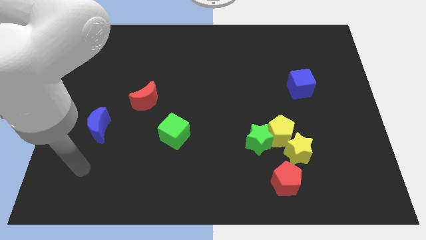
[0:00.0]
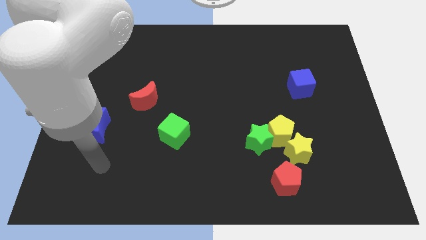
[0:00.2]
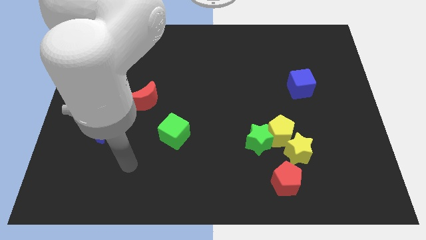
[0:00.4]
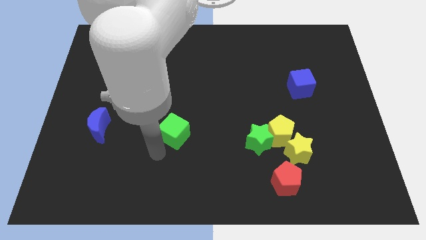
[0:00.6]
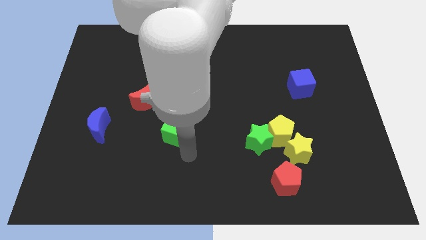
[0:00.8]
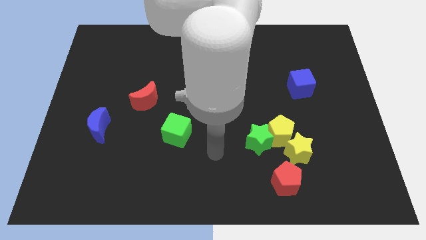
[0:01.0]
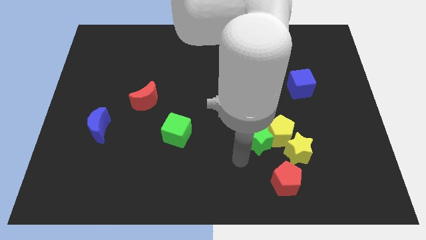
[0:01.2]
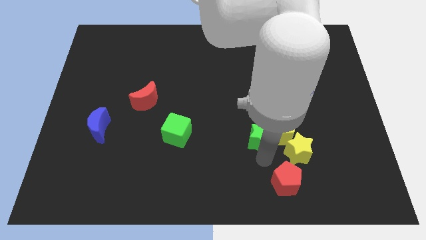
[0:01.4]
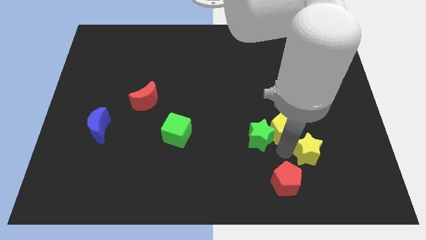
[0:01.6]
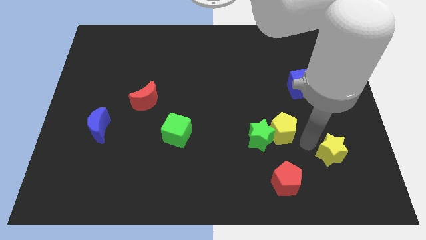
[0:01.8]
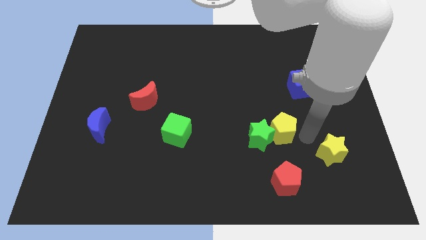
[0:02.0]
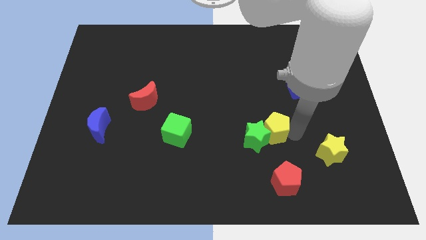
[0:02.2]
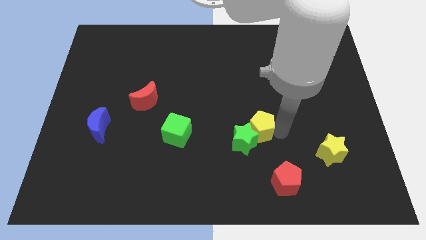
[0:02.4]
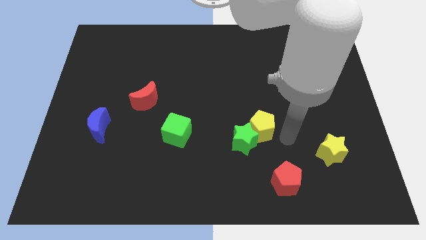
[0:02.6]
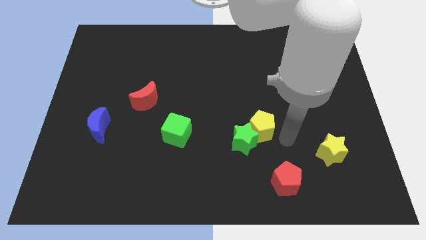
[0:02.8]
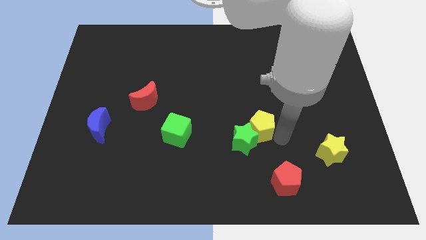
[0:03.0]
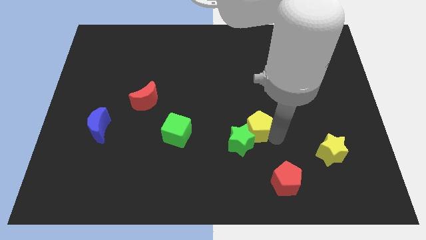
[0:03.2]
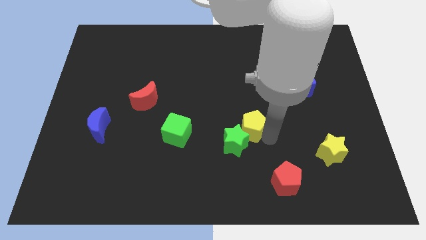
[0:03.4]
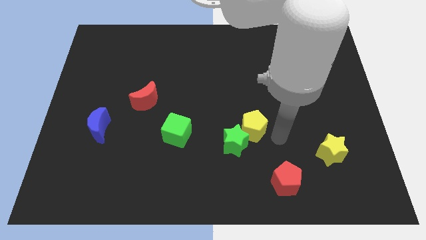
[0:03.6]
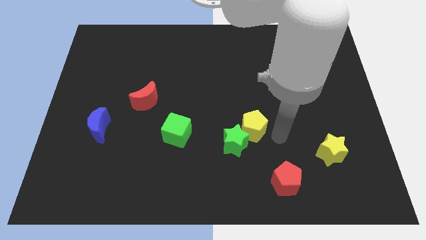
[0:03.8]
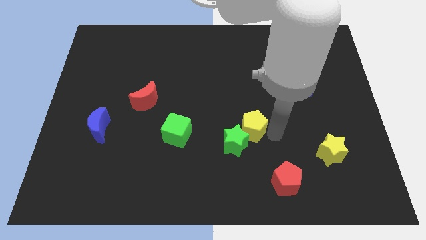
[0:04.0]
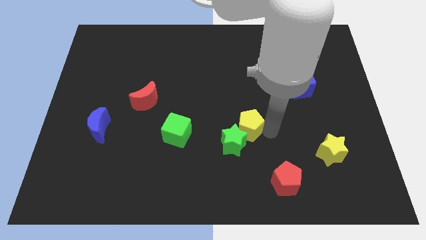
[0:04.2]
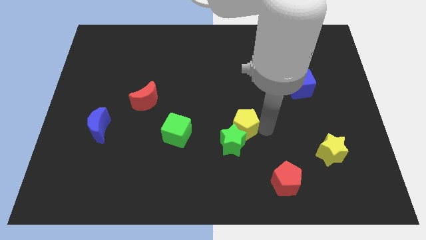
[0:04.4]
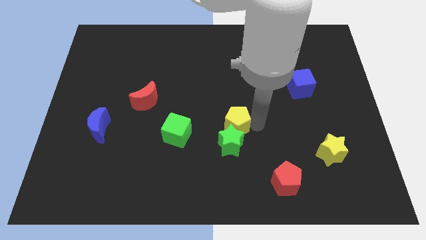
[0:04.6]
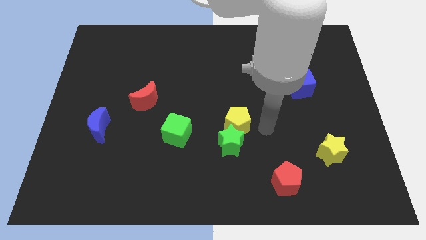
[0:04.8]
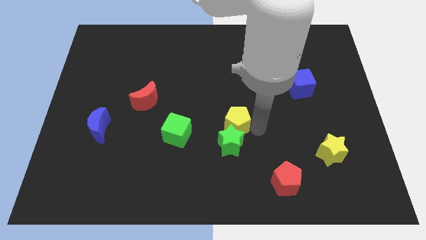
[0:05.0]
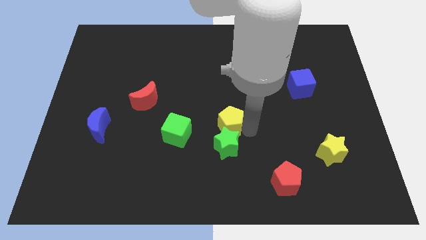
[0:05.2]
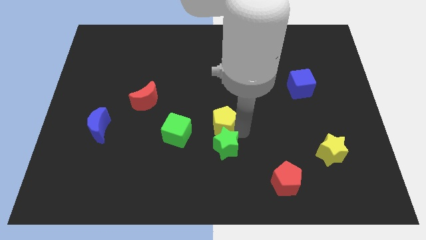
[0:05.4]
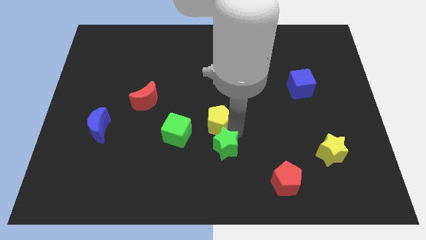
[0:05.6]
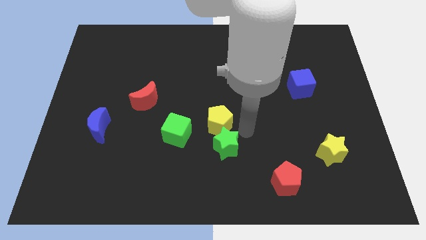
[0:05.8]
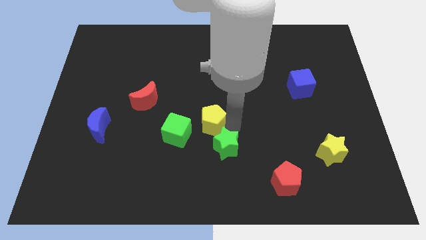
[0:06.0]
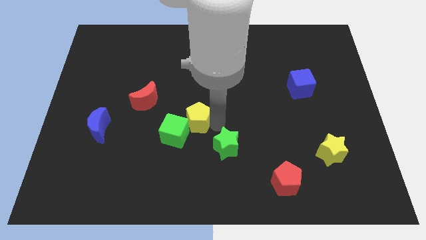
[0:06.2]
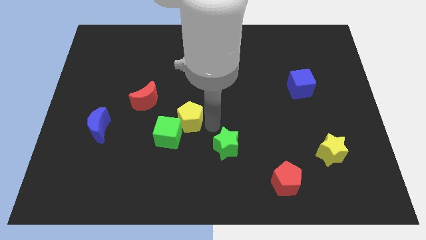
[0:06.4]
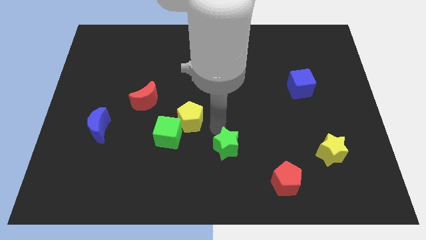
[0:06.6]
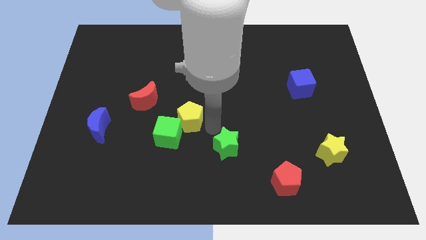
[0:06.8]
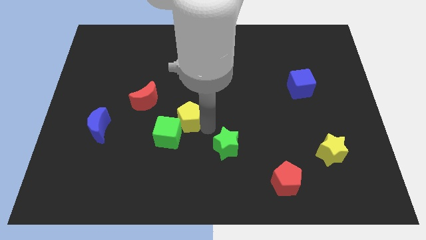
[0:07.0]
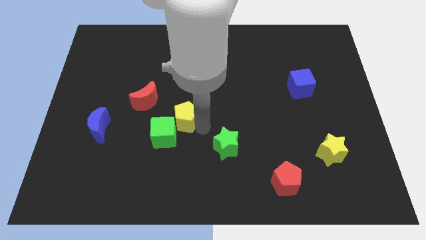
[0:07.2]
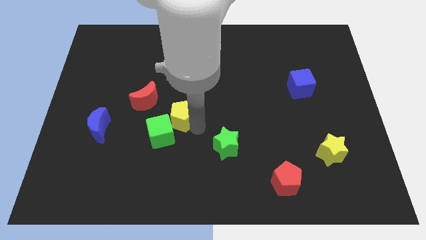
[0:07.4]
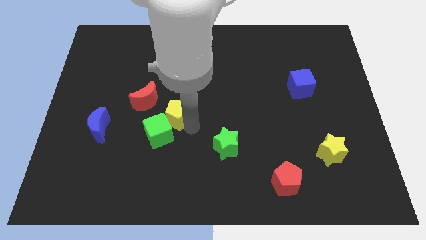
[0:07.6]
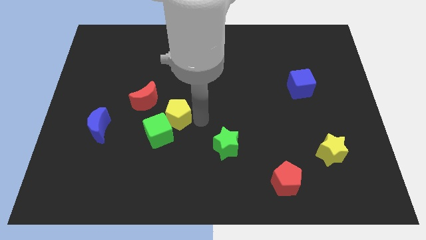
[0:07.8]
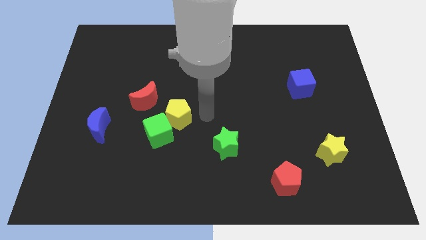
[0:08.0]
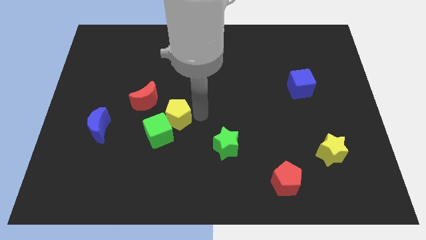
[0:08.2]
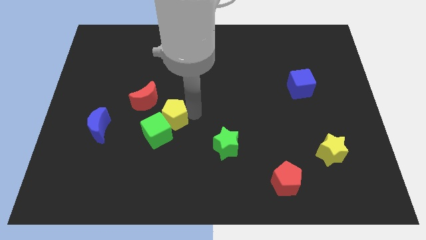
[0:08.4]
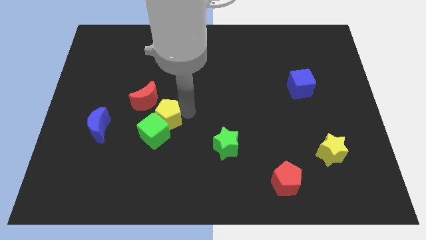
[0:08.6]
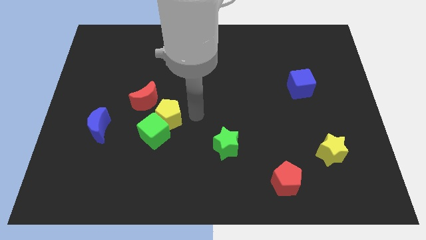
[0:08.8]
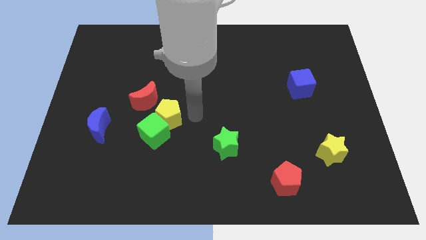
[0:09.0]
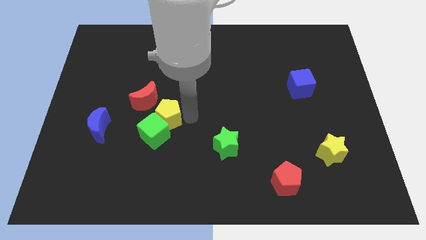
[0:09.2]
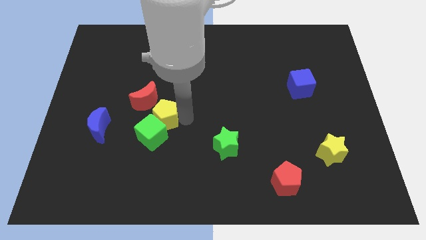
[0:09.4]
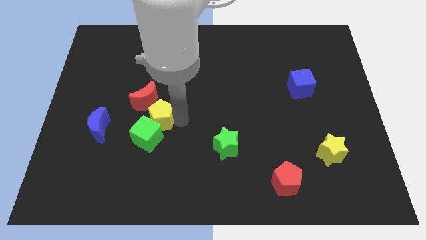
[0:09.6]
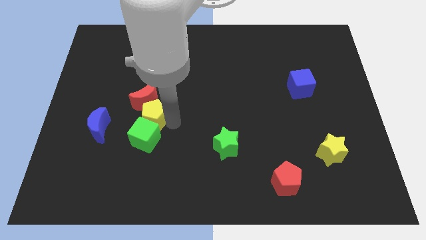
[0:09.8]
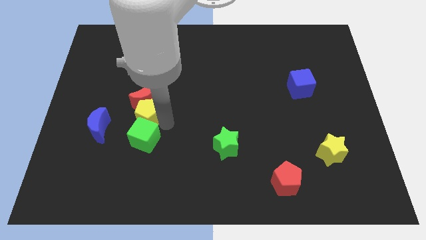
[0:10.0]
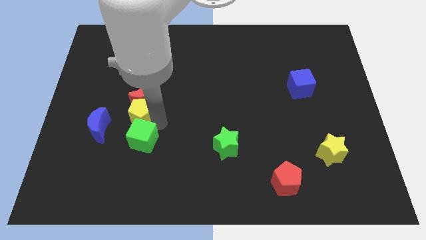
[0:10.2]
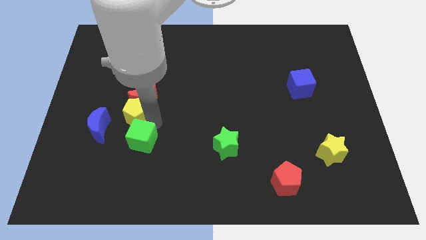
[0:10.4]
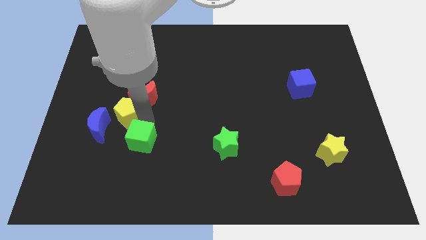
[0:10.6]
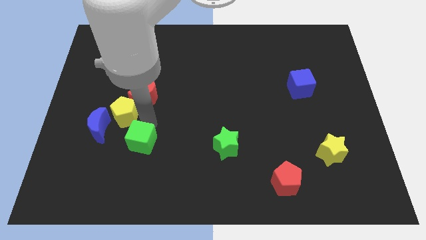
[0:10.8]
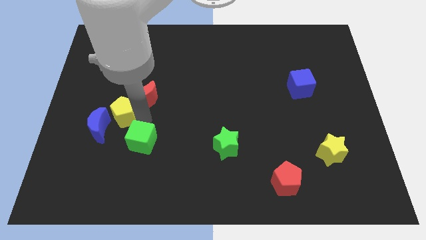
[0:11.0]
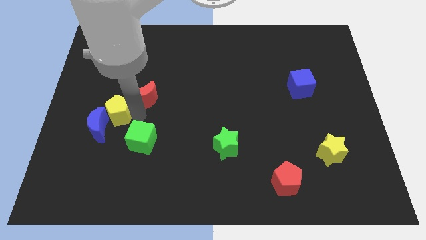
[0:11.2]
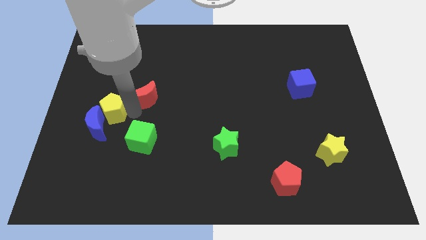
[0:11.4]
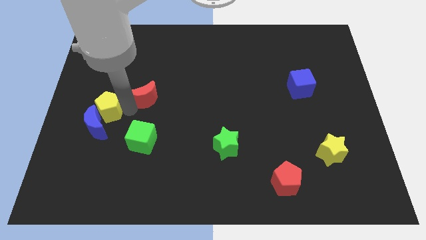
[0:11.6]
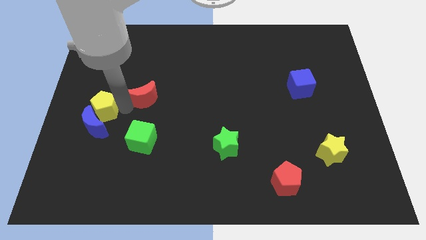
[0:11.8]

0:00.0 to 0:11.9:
push the yellow pentagon to the left side of the board

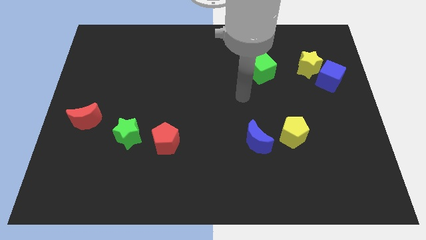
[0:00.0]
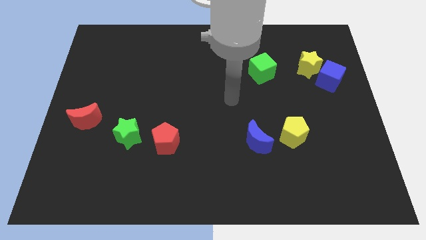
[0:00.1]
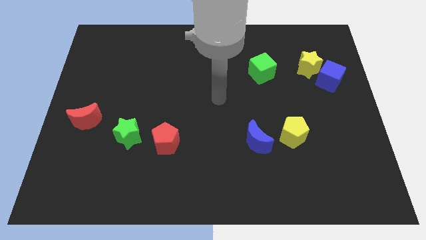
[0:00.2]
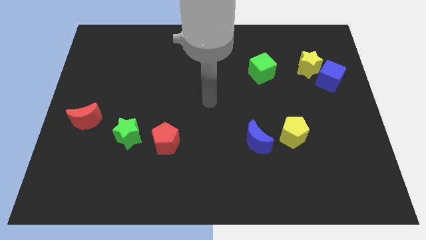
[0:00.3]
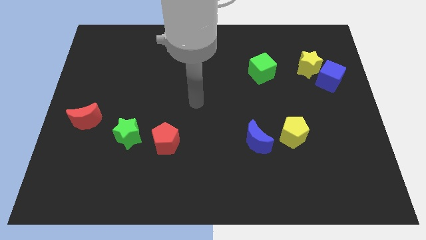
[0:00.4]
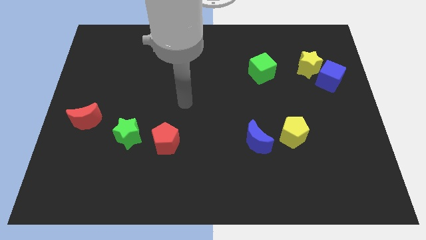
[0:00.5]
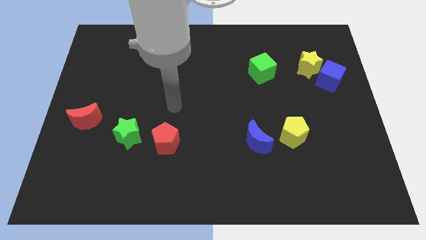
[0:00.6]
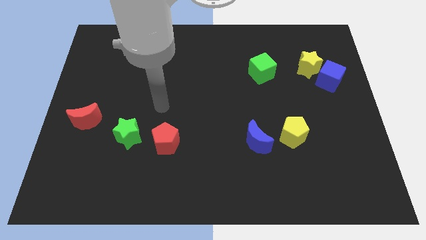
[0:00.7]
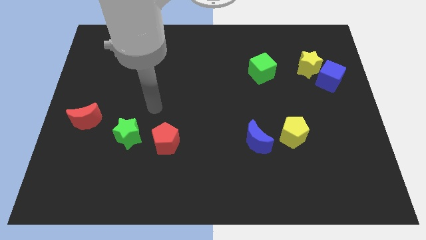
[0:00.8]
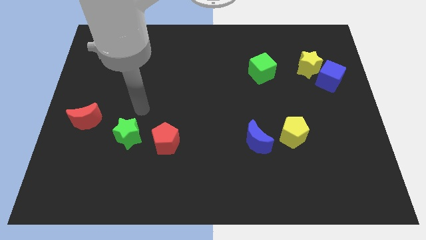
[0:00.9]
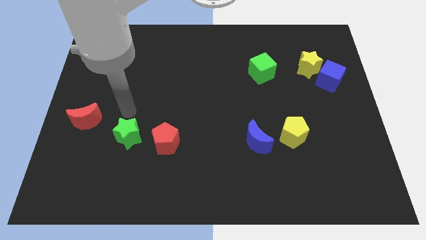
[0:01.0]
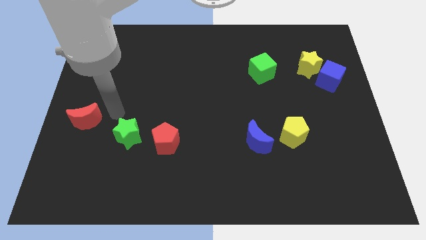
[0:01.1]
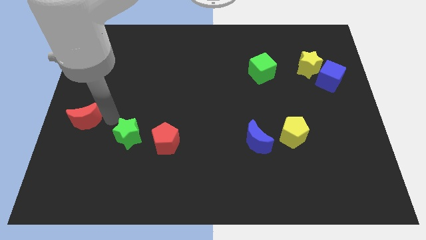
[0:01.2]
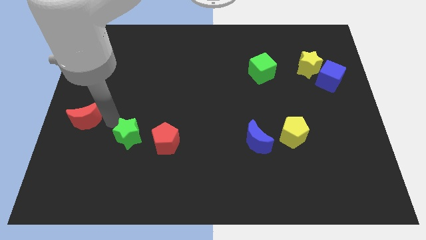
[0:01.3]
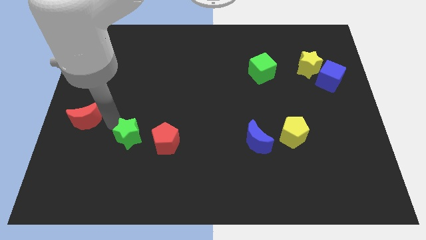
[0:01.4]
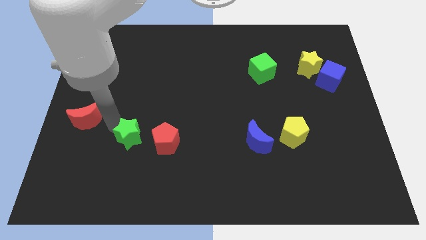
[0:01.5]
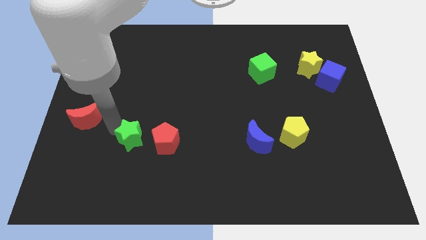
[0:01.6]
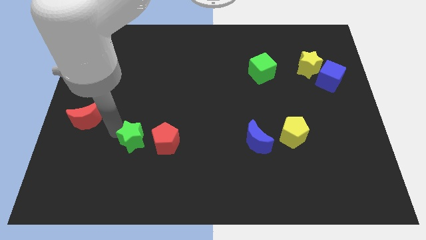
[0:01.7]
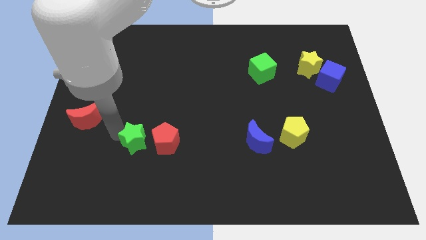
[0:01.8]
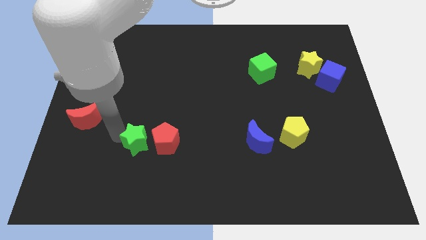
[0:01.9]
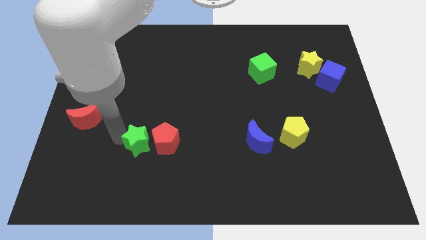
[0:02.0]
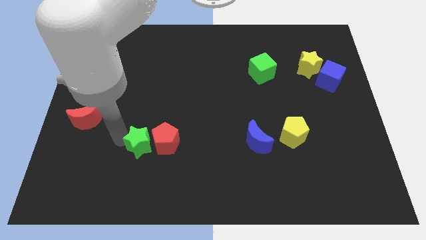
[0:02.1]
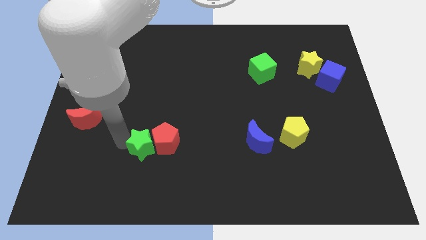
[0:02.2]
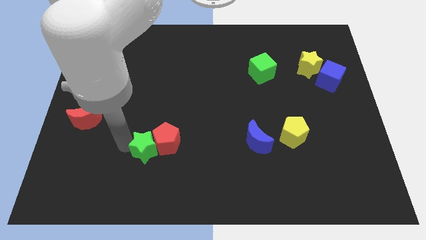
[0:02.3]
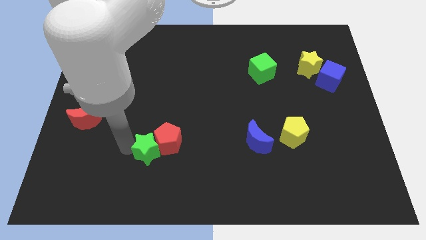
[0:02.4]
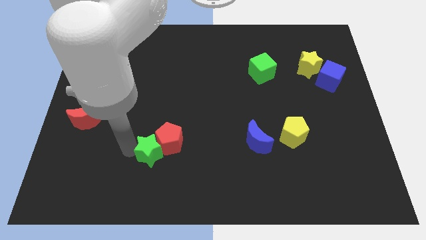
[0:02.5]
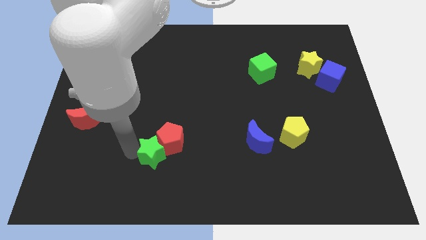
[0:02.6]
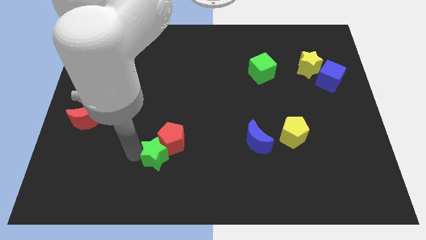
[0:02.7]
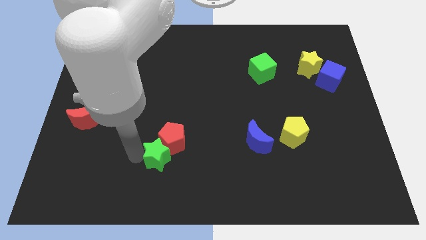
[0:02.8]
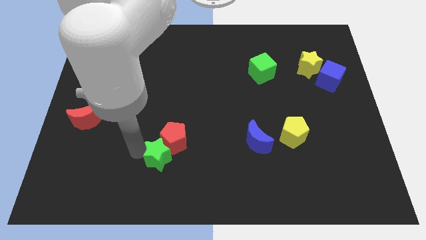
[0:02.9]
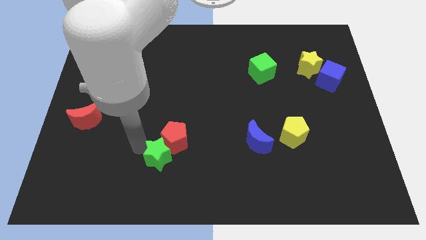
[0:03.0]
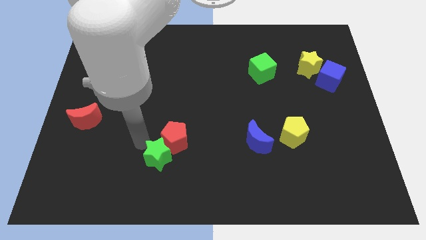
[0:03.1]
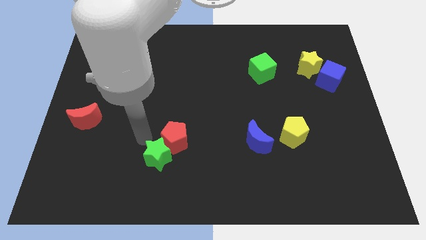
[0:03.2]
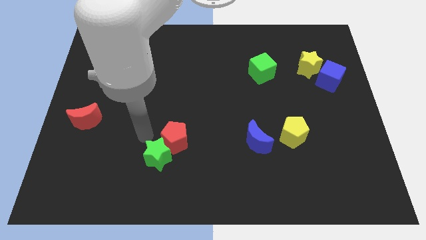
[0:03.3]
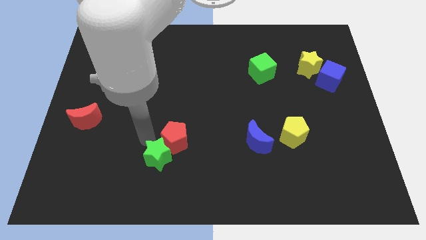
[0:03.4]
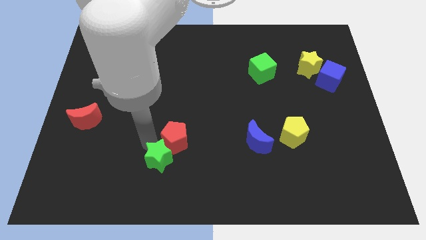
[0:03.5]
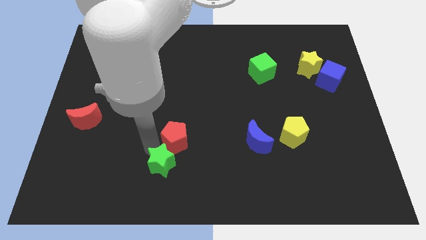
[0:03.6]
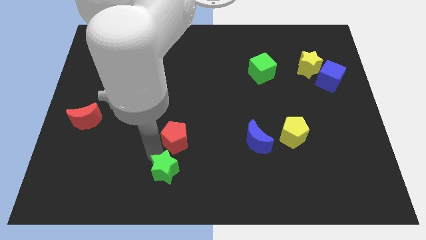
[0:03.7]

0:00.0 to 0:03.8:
put the green star to the bottom side
